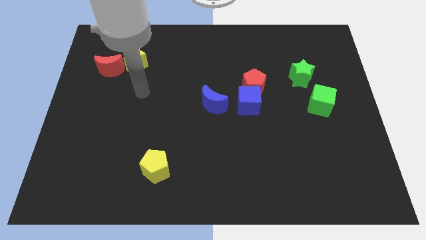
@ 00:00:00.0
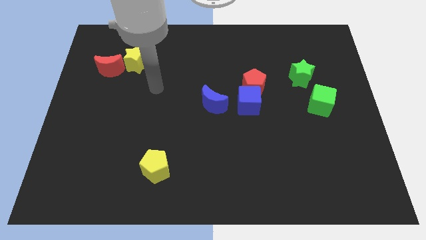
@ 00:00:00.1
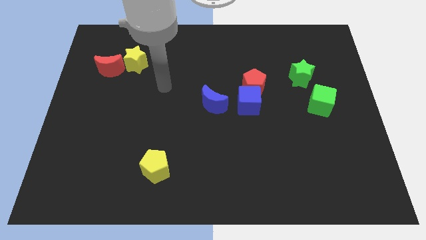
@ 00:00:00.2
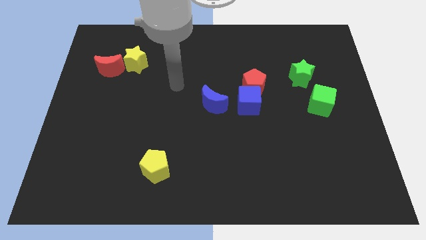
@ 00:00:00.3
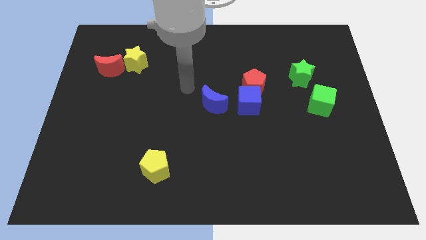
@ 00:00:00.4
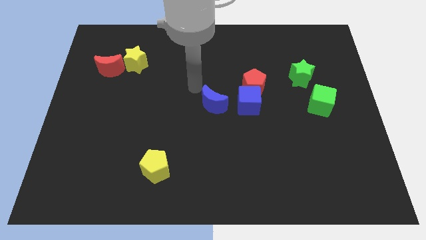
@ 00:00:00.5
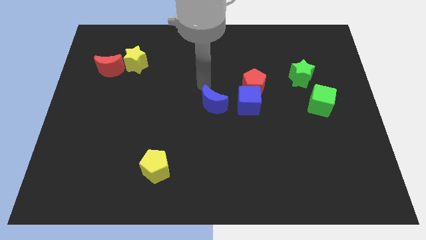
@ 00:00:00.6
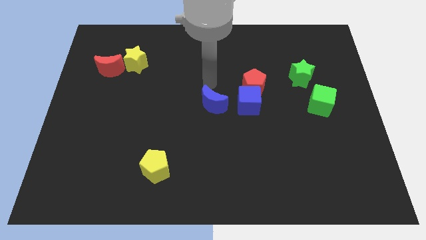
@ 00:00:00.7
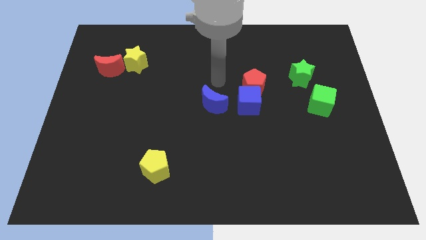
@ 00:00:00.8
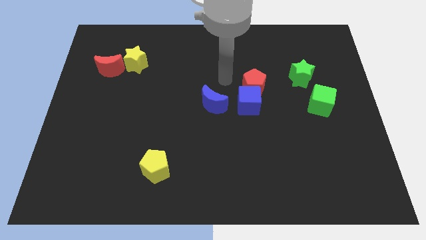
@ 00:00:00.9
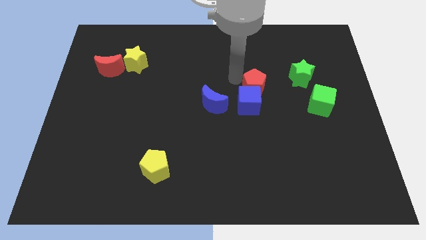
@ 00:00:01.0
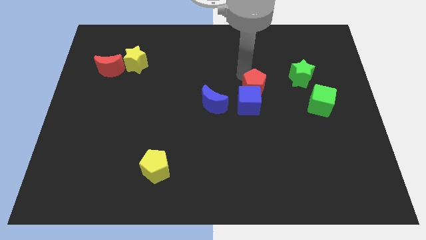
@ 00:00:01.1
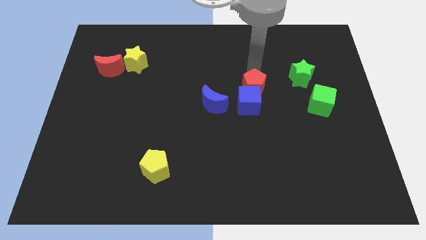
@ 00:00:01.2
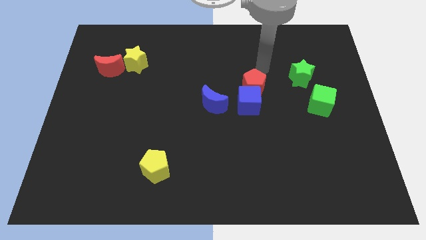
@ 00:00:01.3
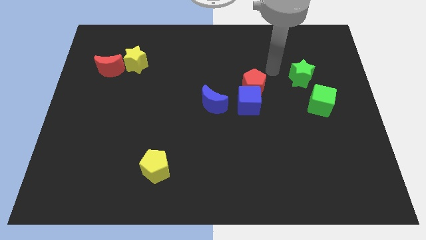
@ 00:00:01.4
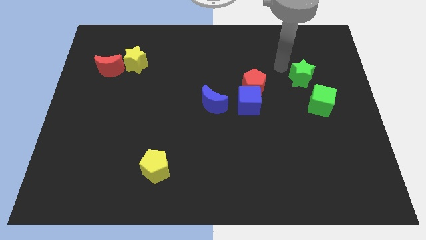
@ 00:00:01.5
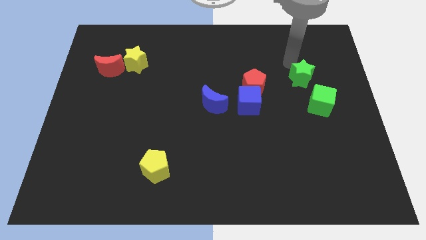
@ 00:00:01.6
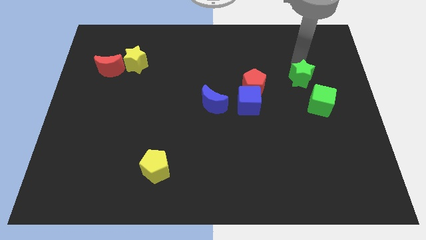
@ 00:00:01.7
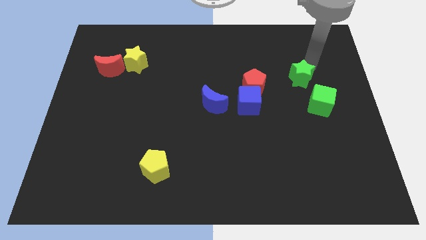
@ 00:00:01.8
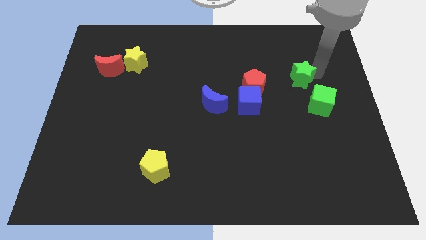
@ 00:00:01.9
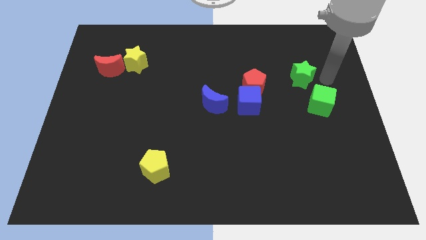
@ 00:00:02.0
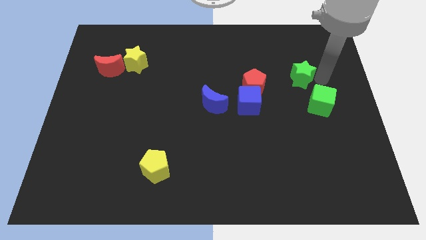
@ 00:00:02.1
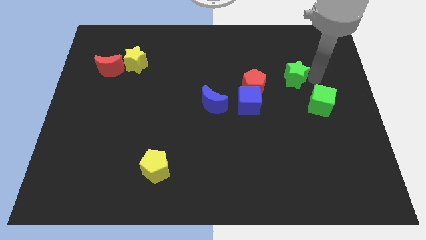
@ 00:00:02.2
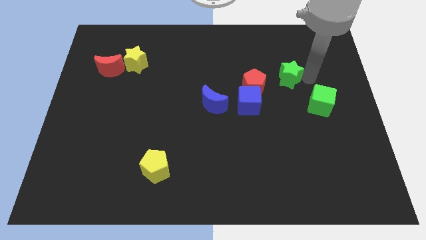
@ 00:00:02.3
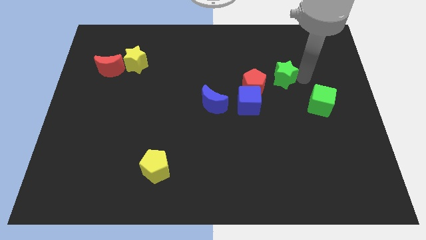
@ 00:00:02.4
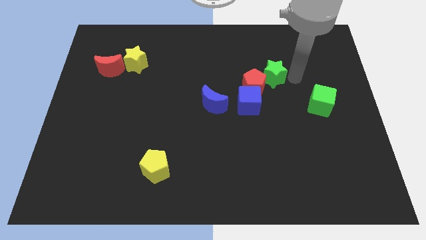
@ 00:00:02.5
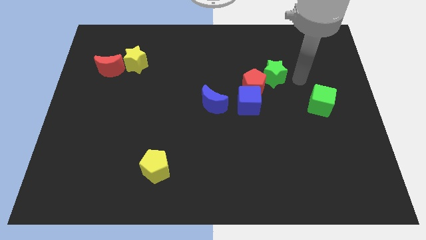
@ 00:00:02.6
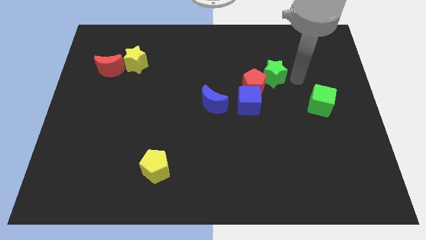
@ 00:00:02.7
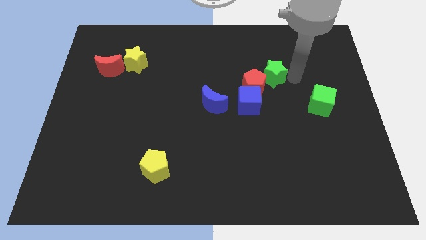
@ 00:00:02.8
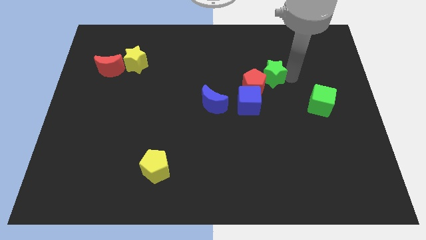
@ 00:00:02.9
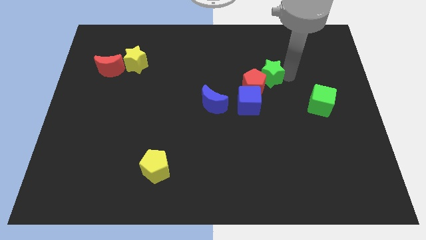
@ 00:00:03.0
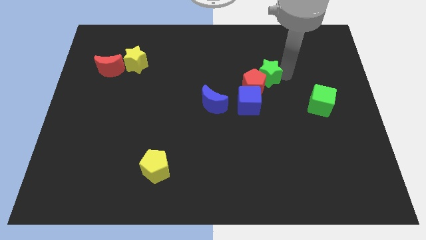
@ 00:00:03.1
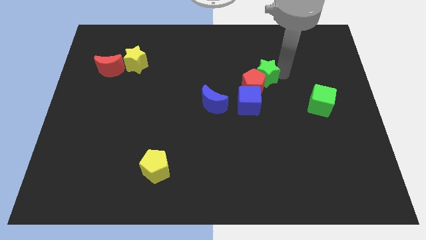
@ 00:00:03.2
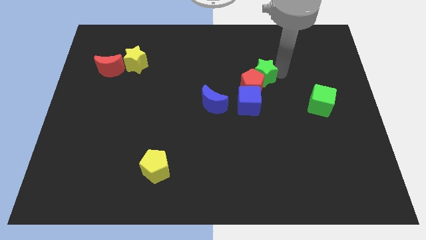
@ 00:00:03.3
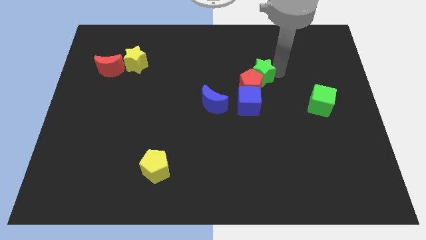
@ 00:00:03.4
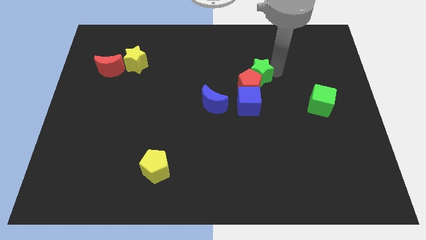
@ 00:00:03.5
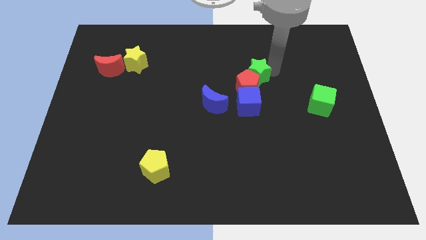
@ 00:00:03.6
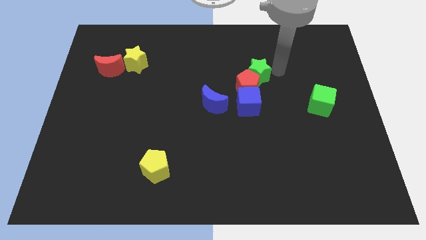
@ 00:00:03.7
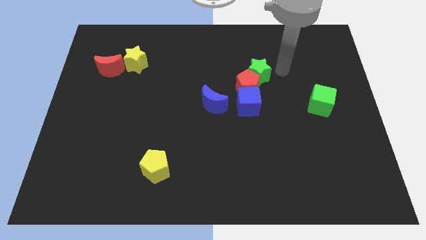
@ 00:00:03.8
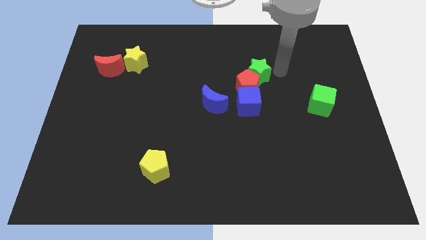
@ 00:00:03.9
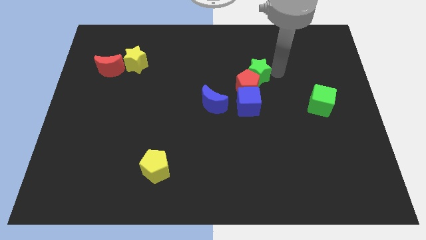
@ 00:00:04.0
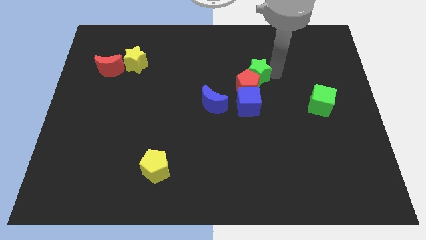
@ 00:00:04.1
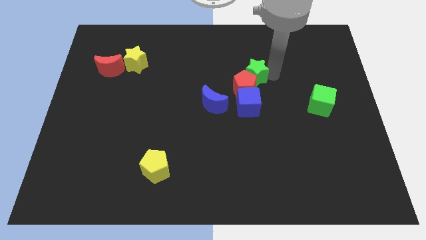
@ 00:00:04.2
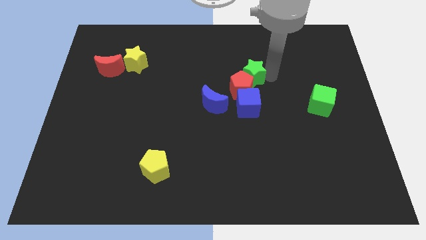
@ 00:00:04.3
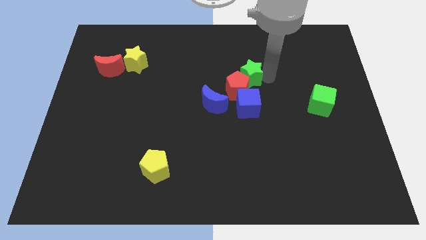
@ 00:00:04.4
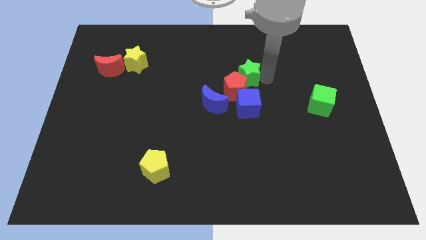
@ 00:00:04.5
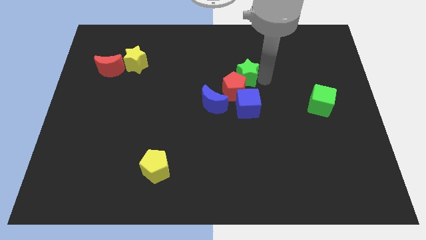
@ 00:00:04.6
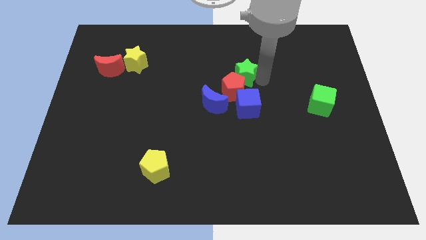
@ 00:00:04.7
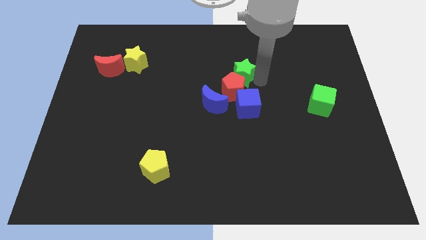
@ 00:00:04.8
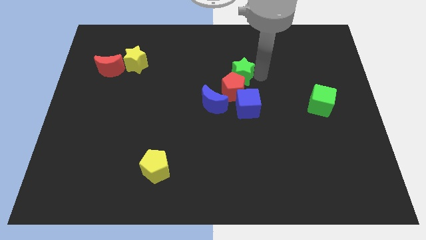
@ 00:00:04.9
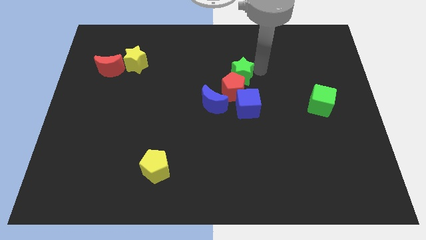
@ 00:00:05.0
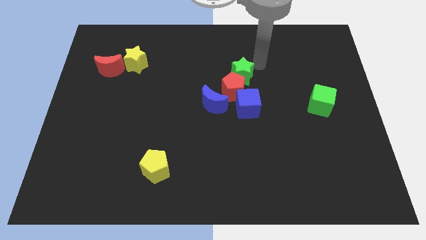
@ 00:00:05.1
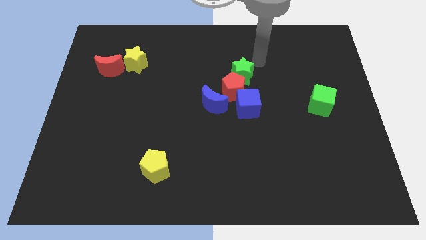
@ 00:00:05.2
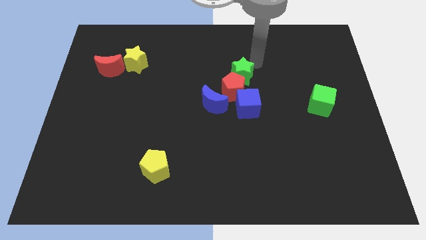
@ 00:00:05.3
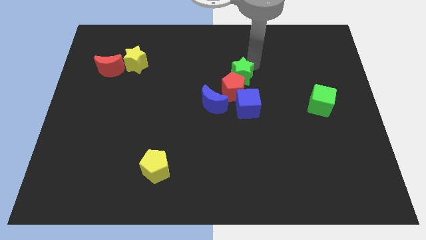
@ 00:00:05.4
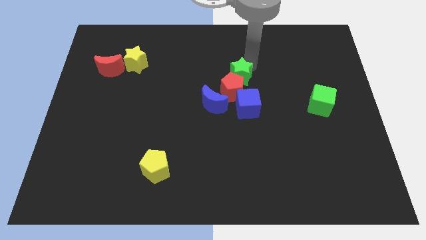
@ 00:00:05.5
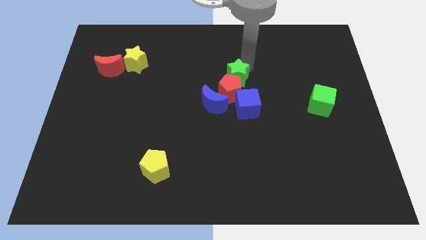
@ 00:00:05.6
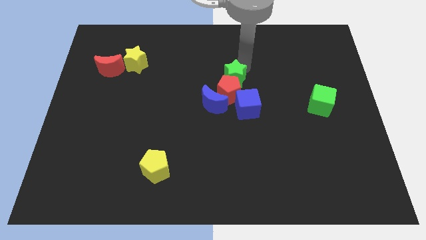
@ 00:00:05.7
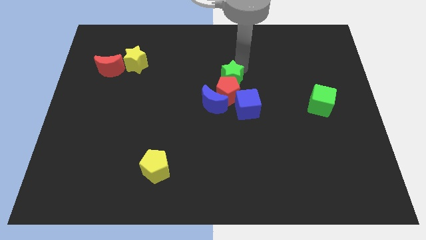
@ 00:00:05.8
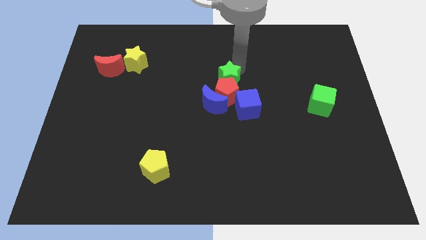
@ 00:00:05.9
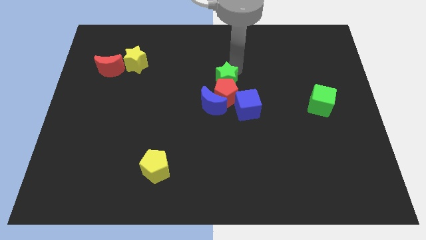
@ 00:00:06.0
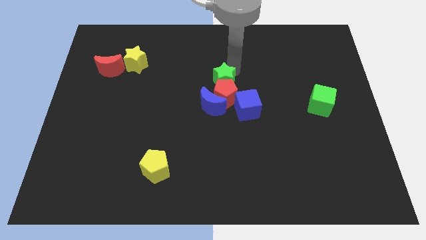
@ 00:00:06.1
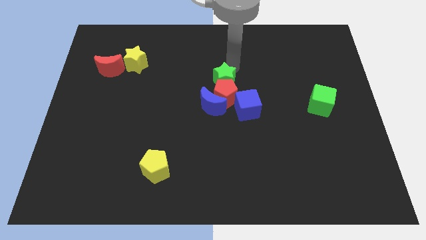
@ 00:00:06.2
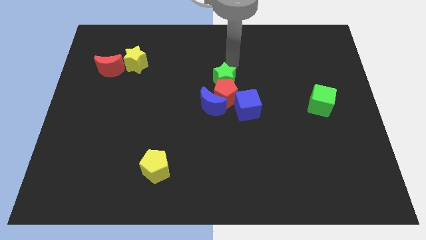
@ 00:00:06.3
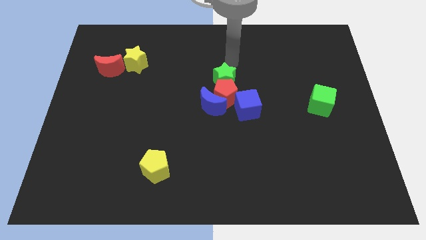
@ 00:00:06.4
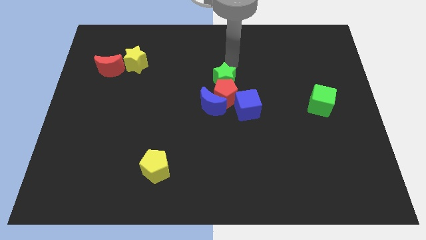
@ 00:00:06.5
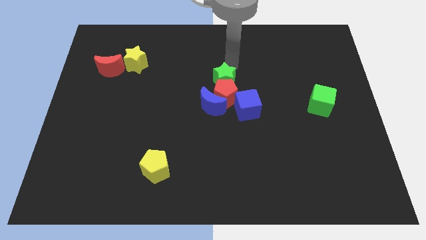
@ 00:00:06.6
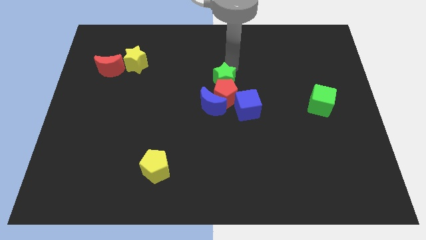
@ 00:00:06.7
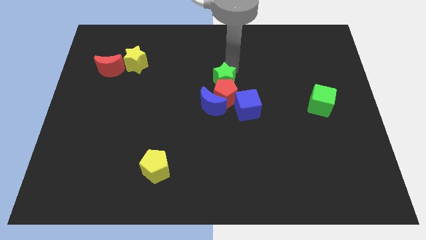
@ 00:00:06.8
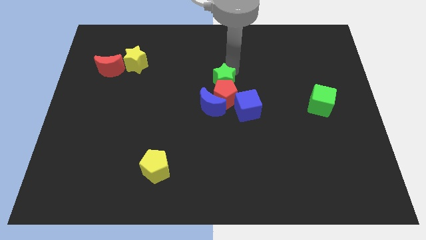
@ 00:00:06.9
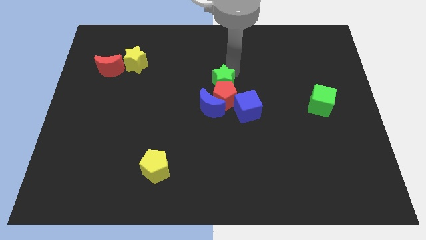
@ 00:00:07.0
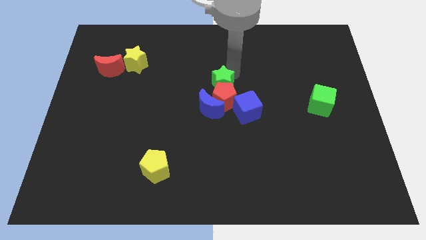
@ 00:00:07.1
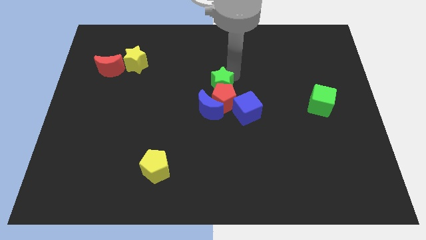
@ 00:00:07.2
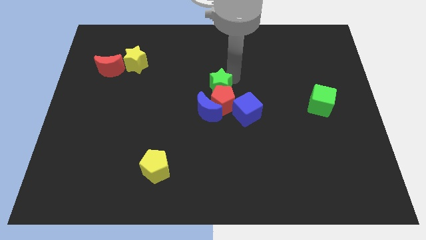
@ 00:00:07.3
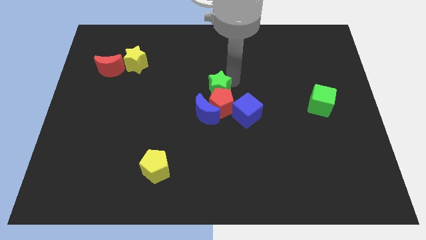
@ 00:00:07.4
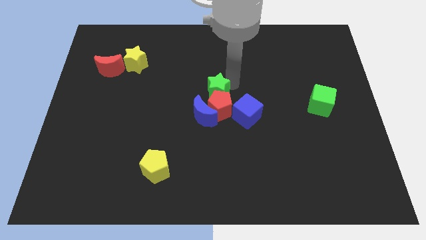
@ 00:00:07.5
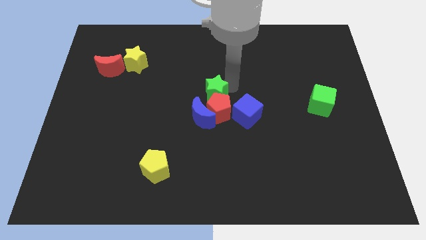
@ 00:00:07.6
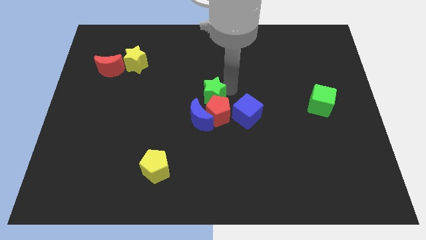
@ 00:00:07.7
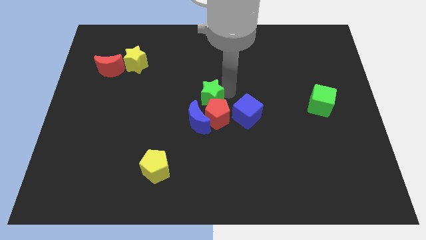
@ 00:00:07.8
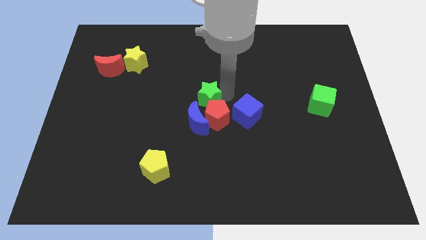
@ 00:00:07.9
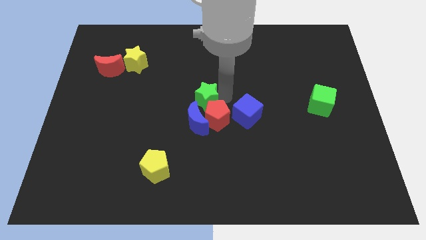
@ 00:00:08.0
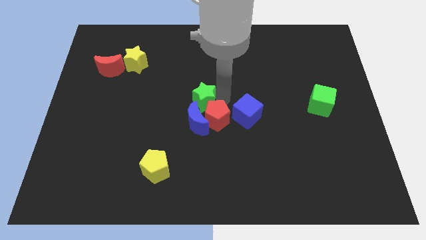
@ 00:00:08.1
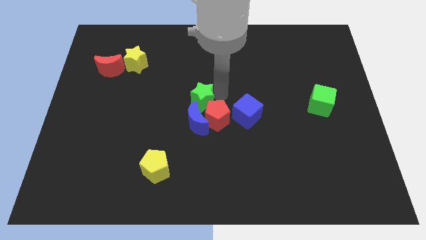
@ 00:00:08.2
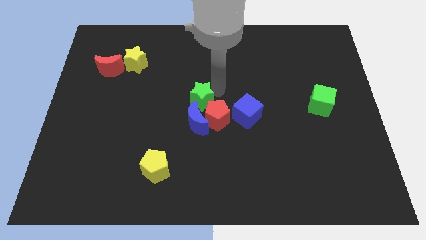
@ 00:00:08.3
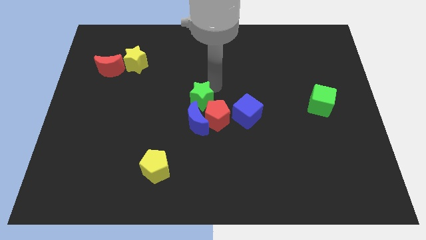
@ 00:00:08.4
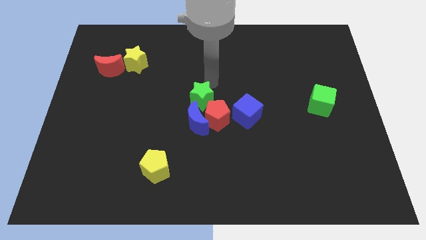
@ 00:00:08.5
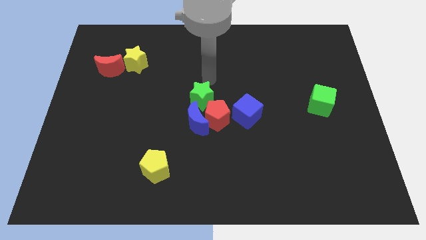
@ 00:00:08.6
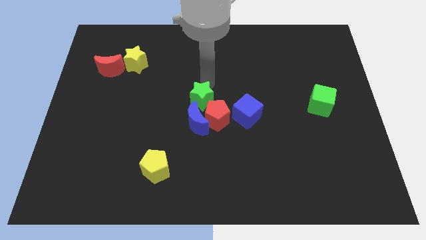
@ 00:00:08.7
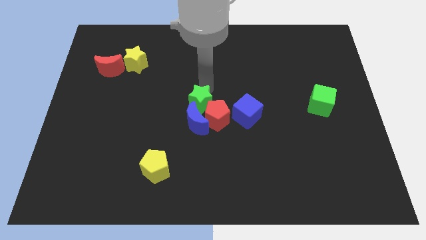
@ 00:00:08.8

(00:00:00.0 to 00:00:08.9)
push the green star next to the blue moon
